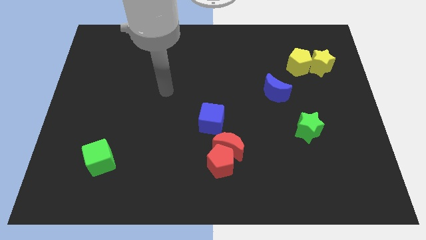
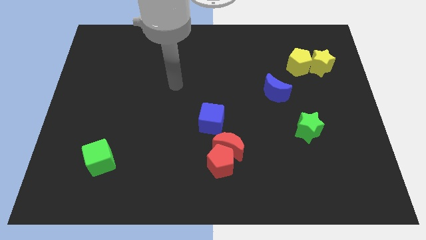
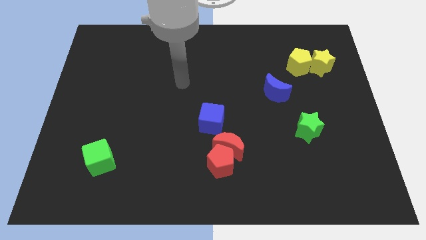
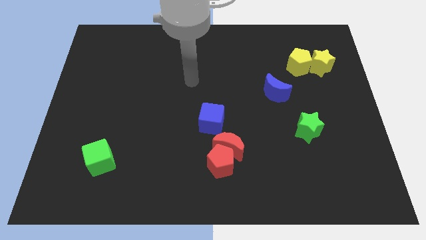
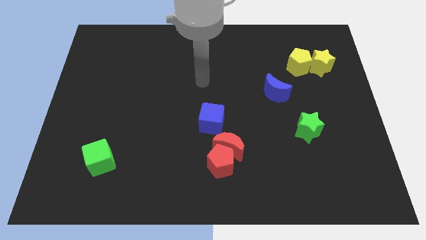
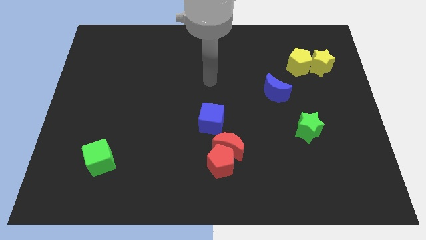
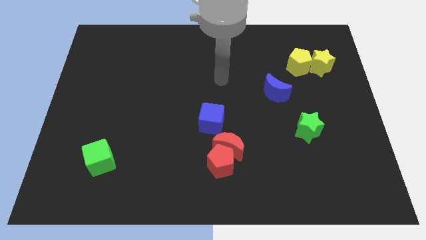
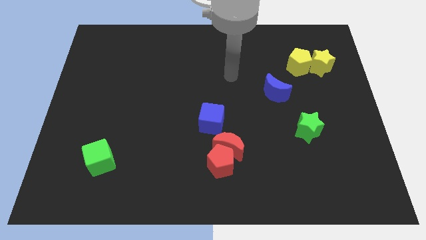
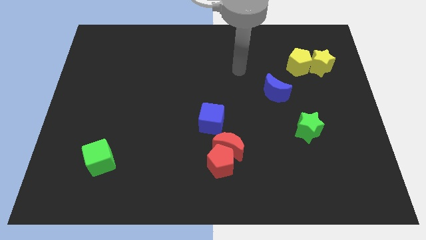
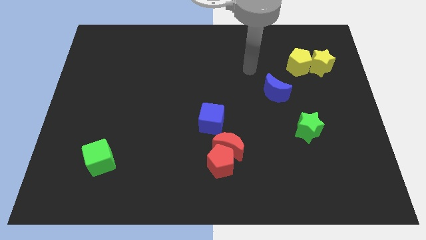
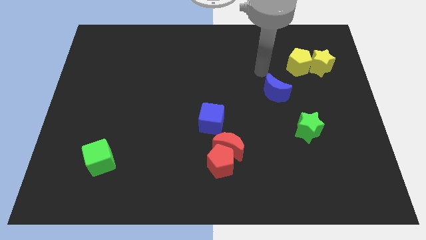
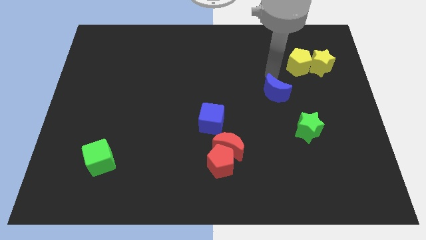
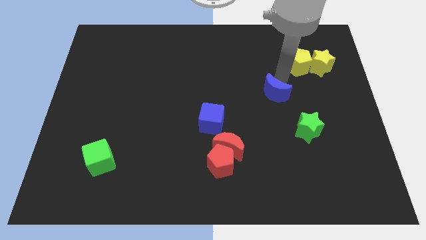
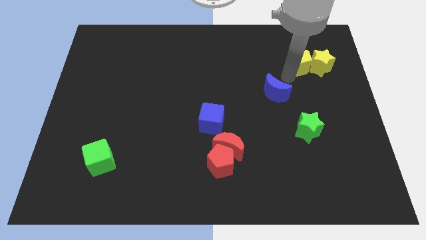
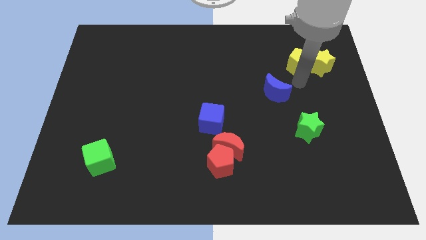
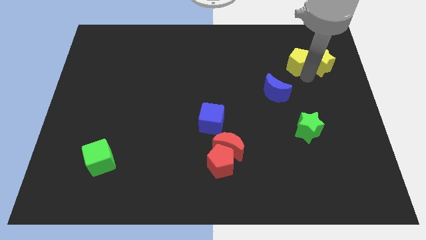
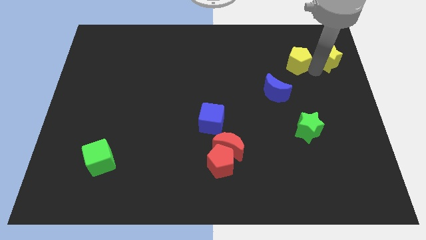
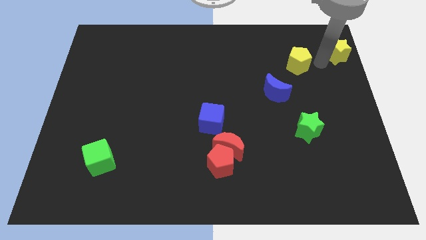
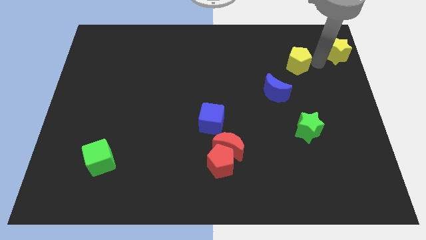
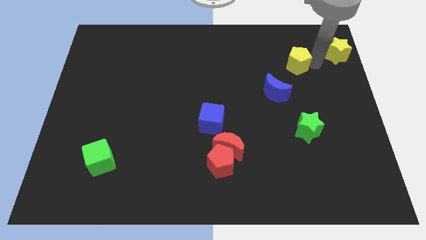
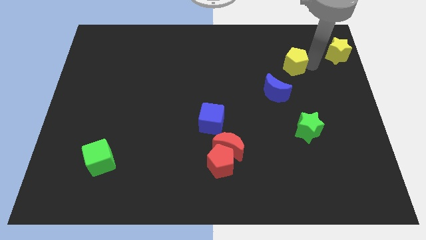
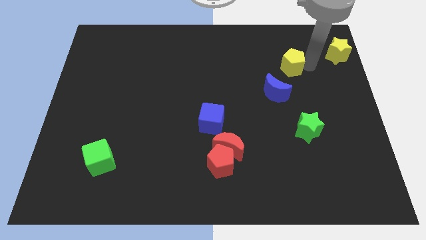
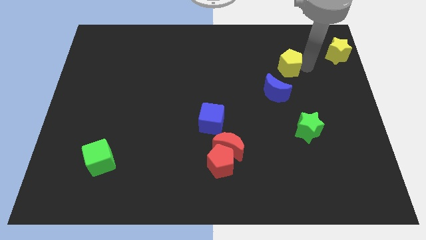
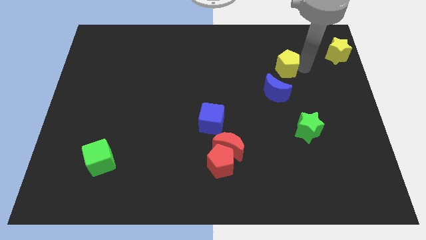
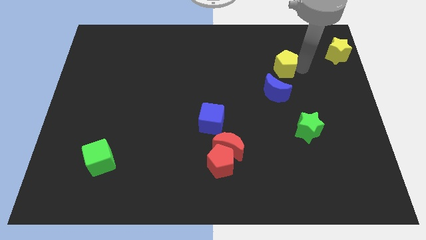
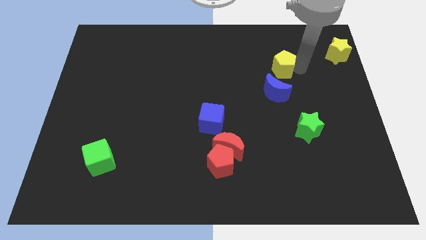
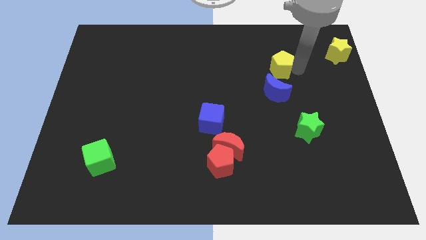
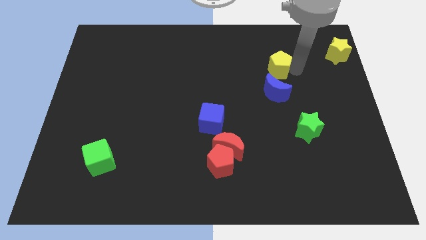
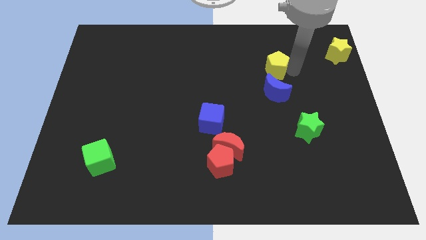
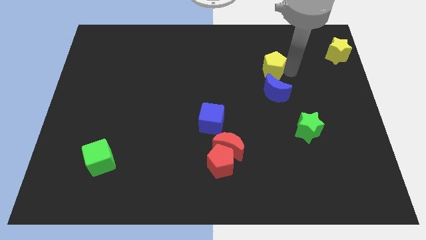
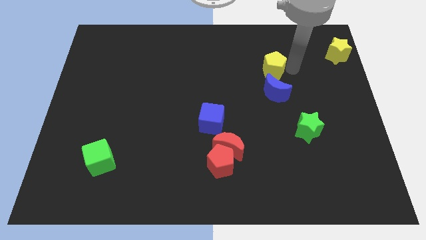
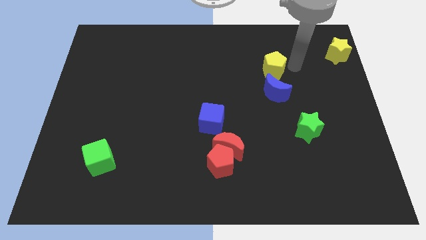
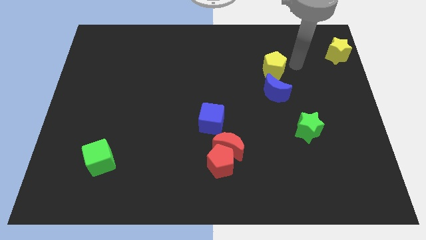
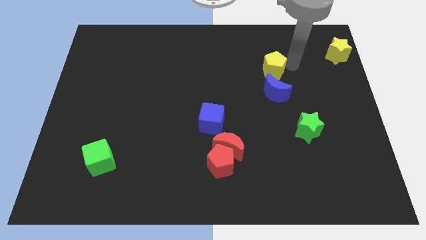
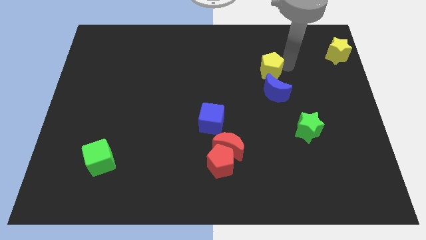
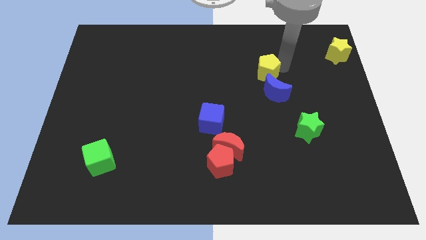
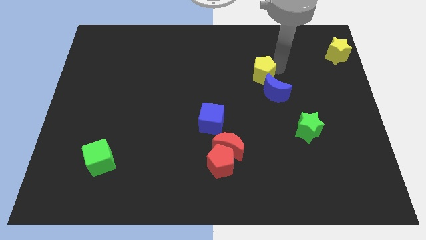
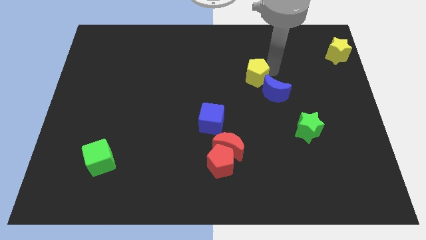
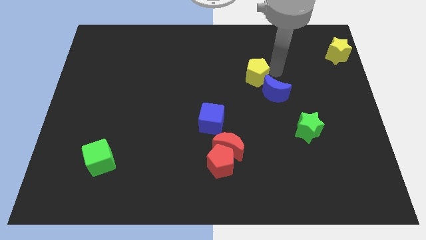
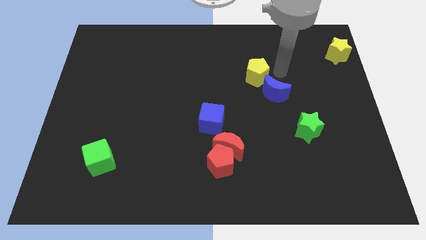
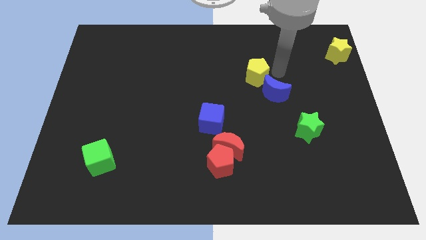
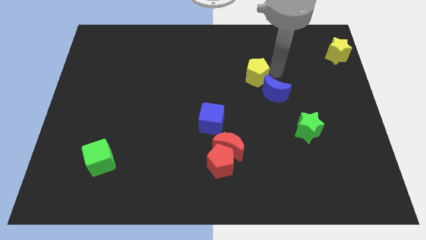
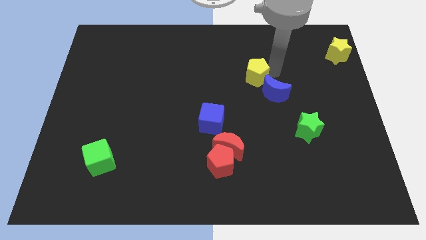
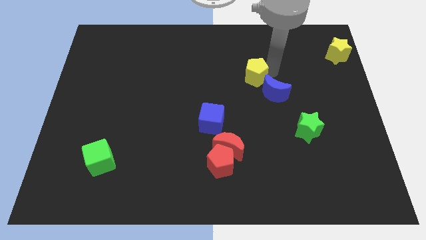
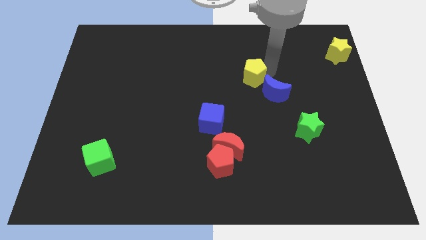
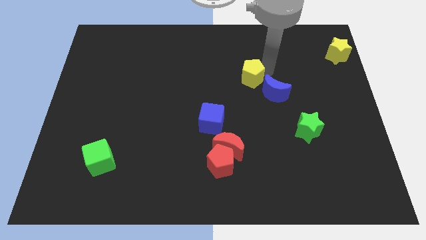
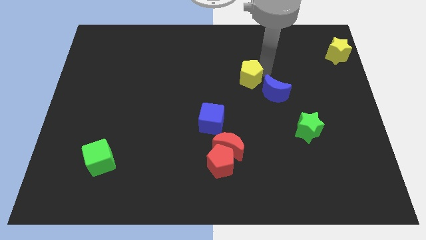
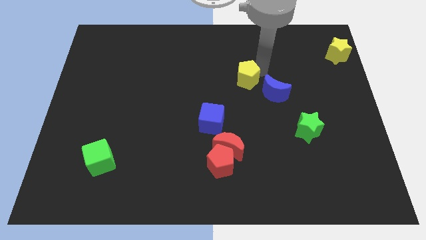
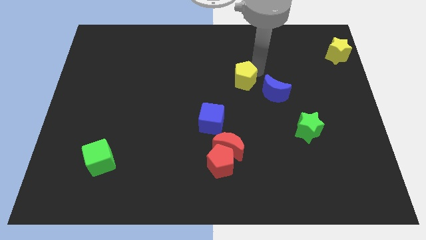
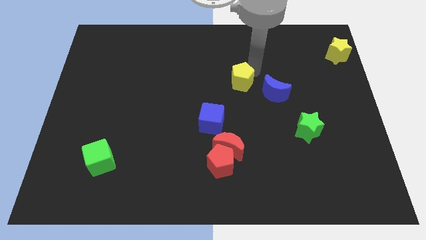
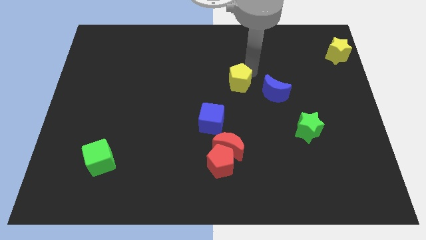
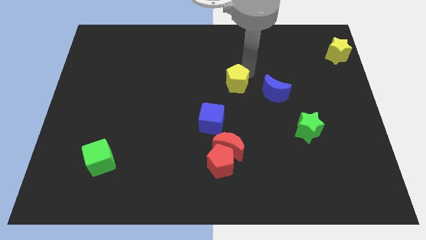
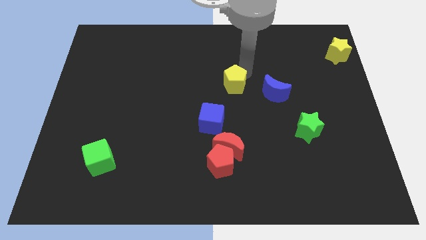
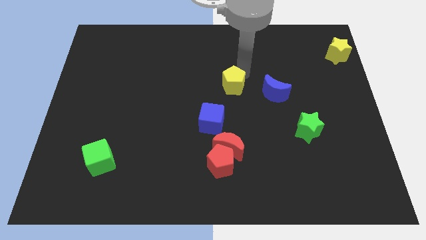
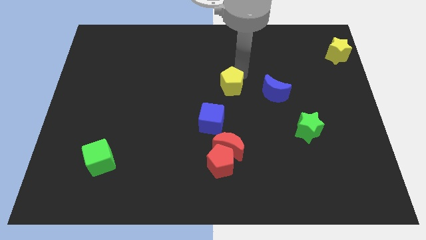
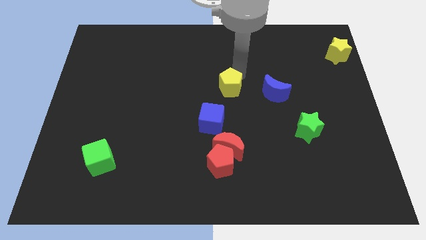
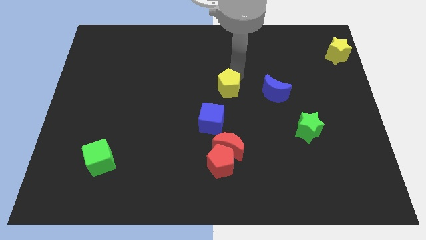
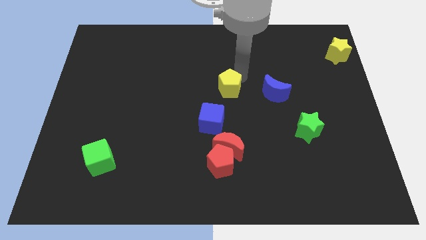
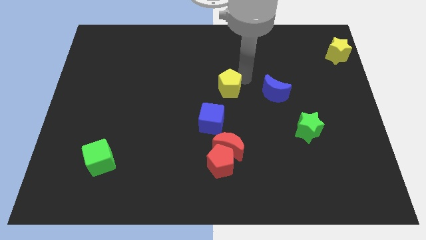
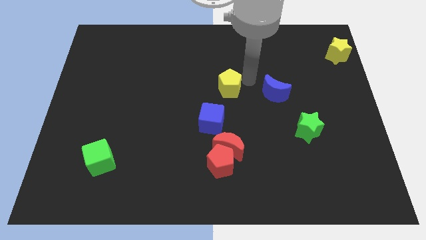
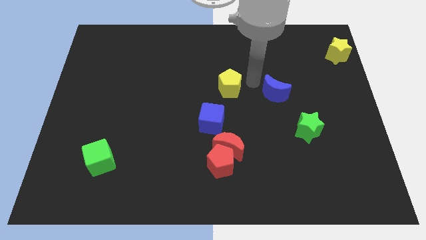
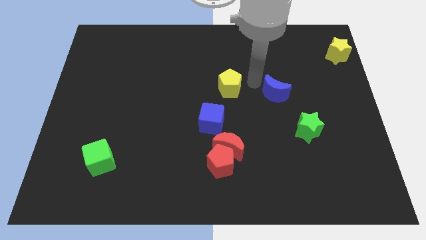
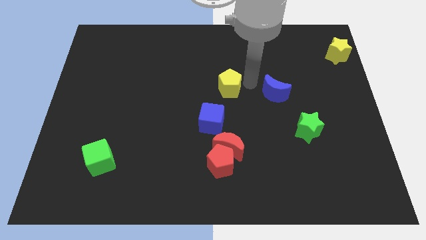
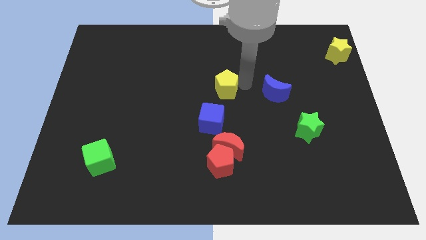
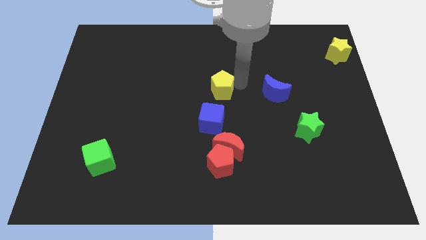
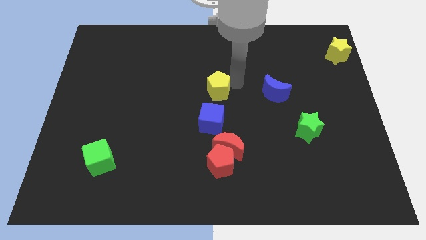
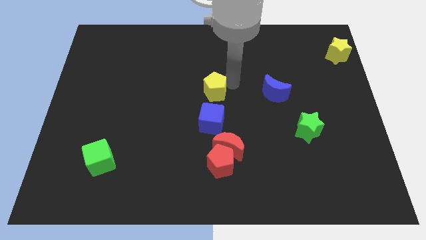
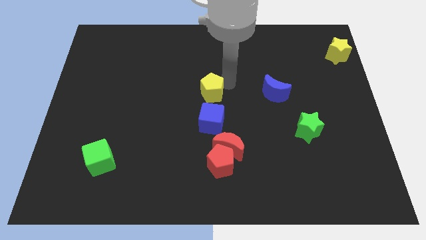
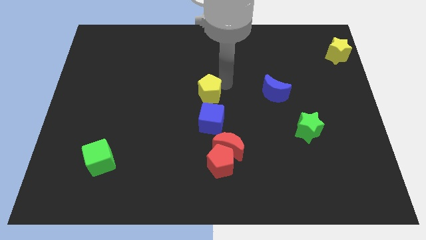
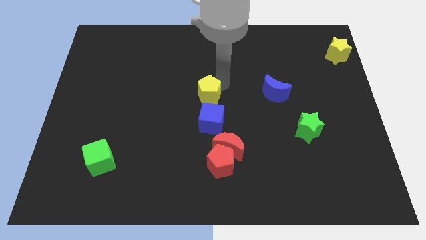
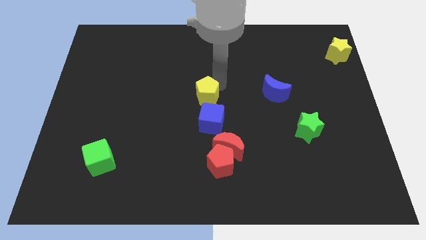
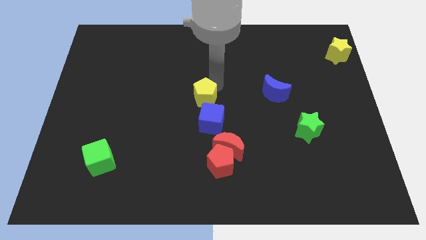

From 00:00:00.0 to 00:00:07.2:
slide the yellow pentagon downwards and then left

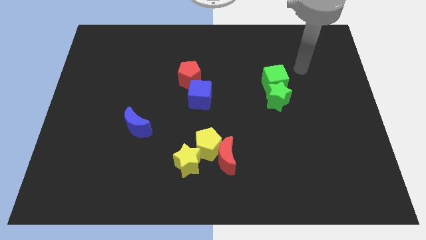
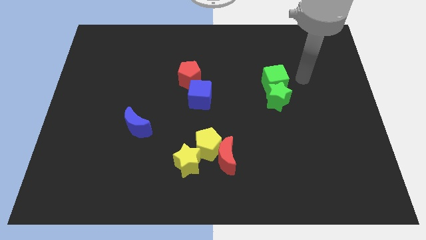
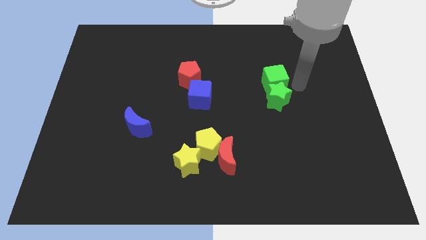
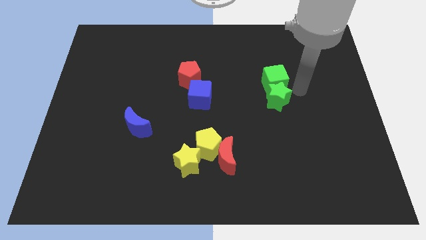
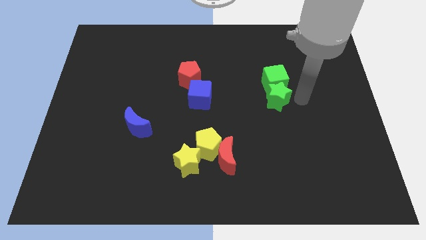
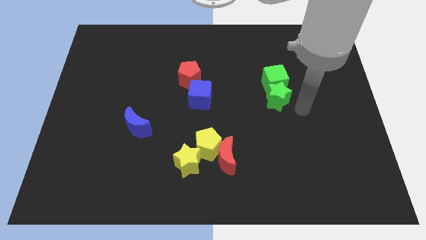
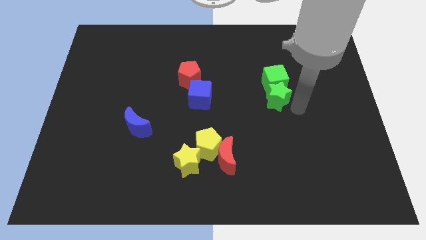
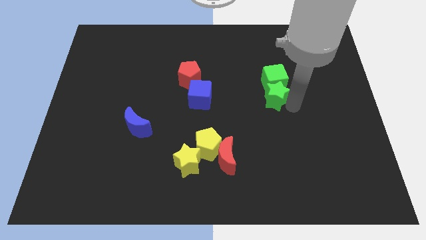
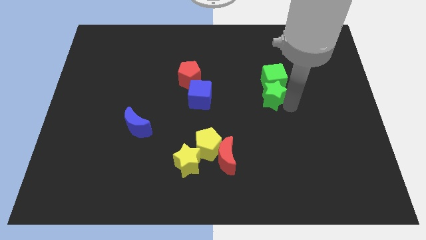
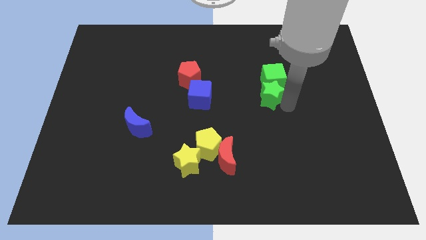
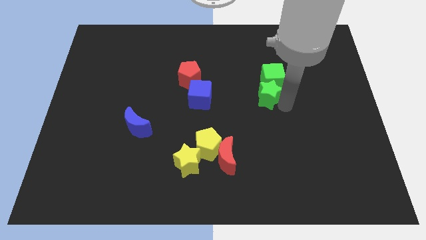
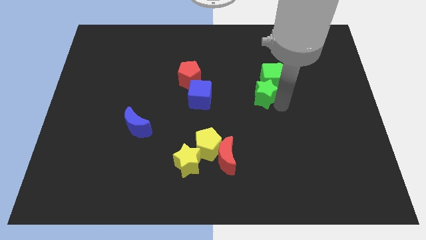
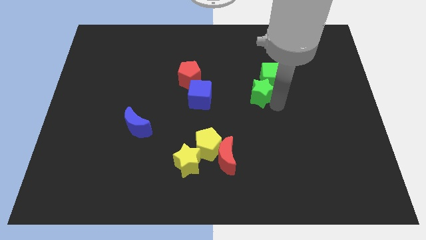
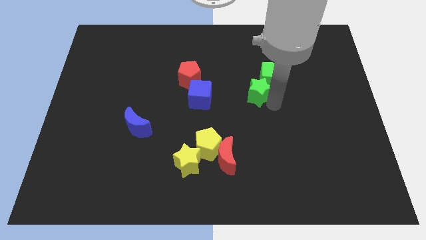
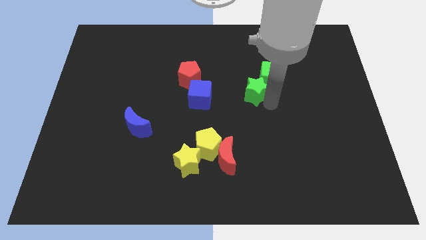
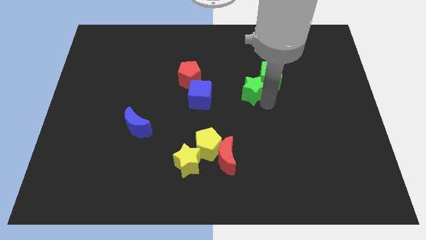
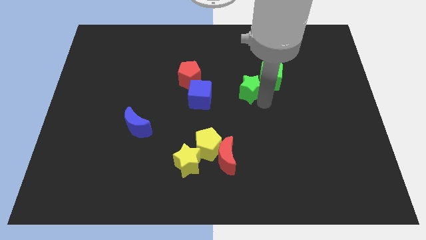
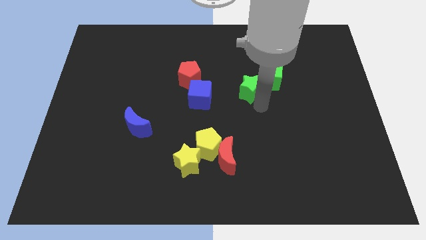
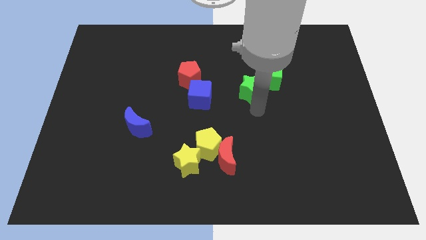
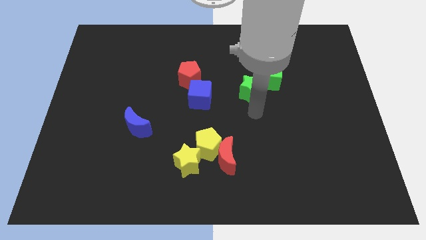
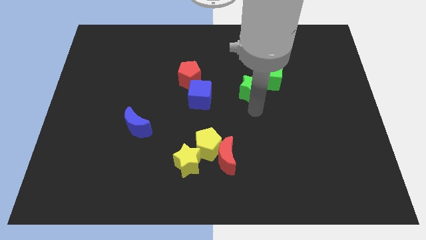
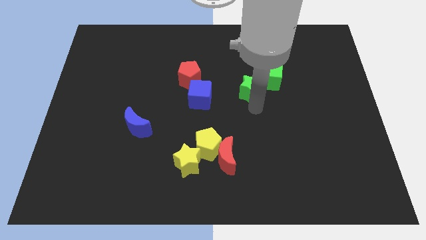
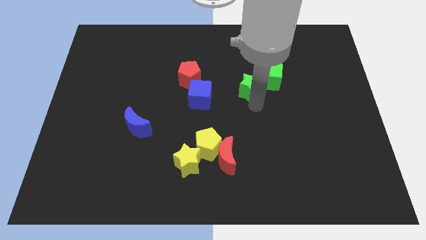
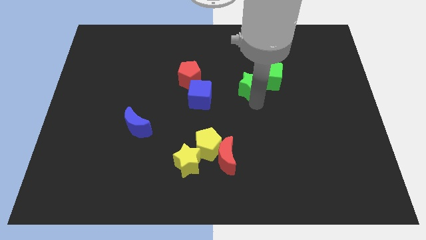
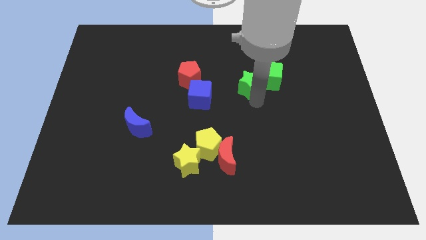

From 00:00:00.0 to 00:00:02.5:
push the green star a bit diagonally upwards and to the left
